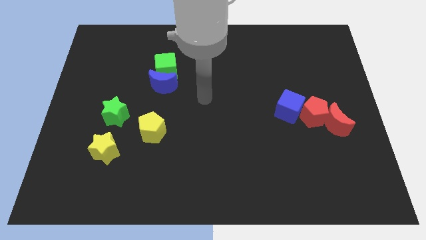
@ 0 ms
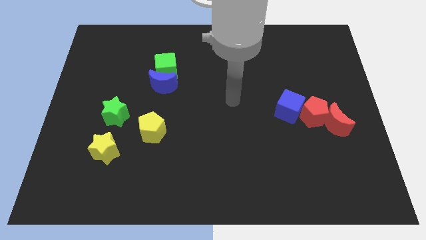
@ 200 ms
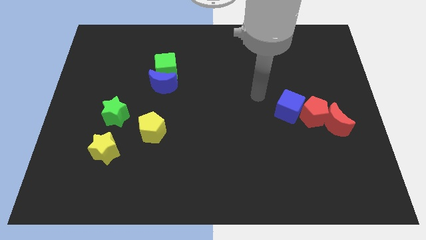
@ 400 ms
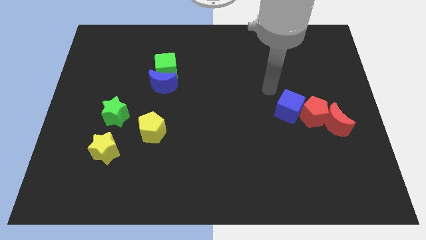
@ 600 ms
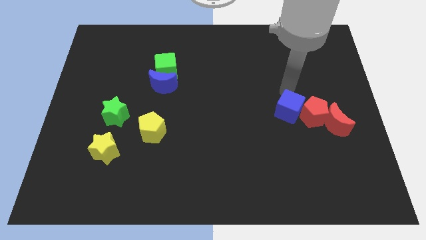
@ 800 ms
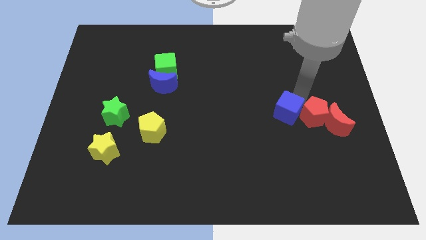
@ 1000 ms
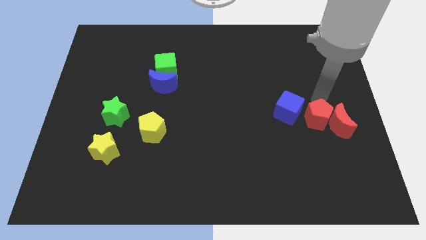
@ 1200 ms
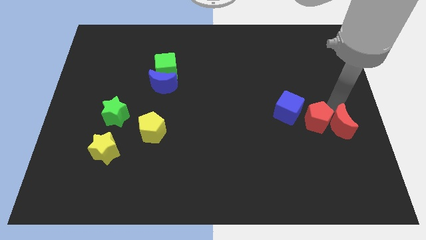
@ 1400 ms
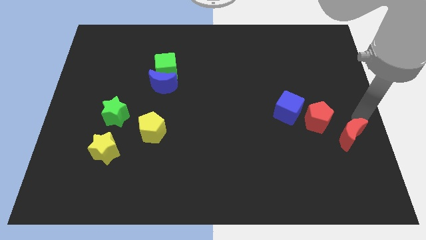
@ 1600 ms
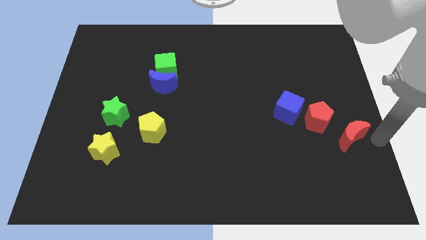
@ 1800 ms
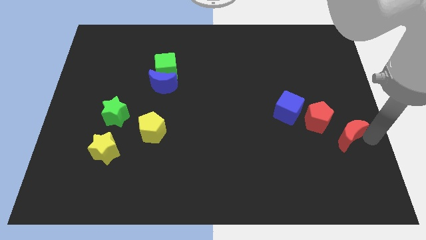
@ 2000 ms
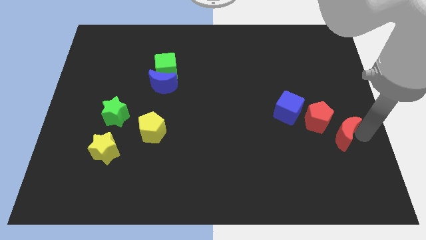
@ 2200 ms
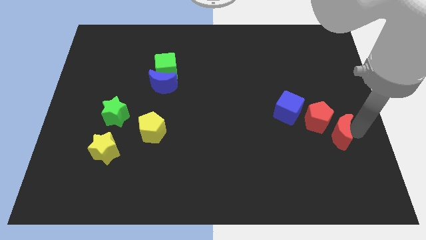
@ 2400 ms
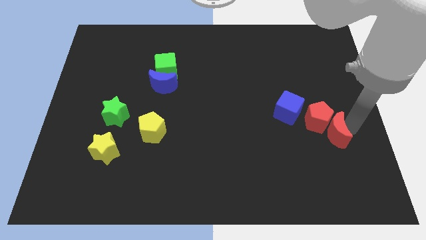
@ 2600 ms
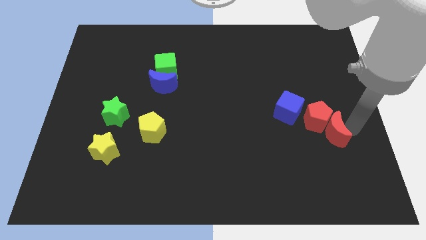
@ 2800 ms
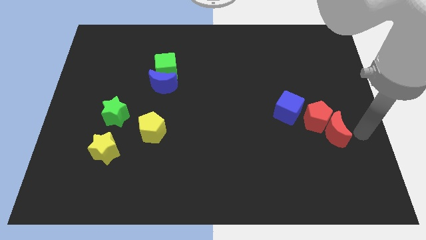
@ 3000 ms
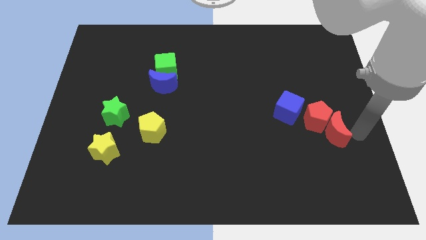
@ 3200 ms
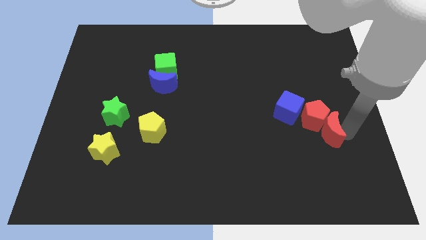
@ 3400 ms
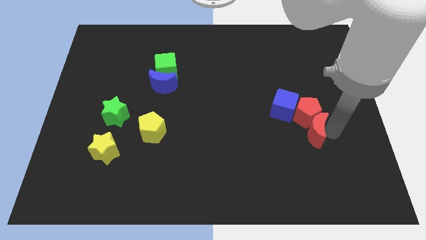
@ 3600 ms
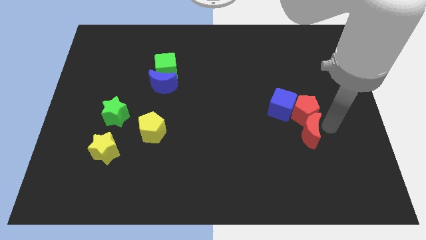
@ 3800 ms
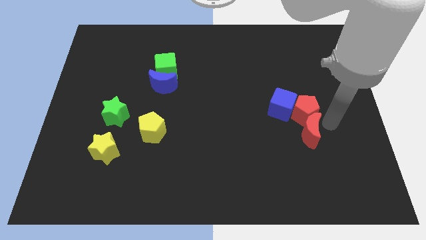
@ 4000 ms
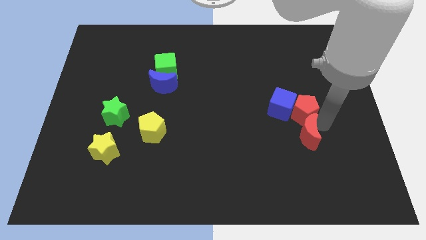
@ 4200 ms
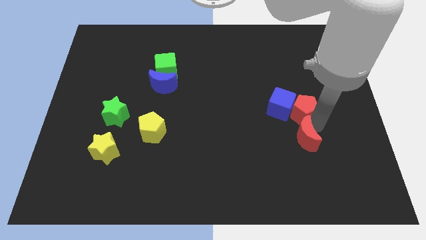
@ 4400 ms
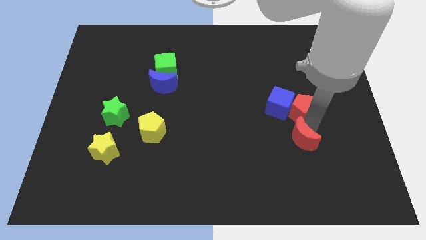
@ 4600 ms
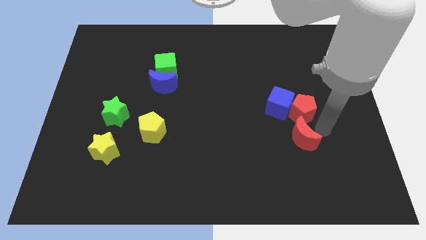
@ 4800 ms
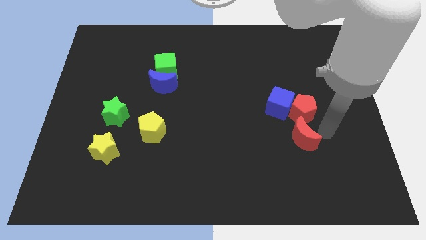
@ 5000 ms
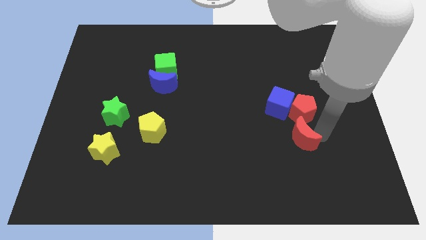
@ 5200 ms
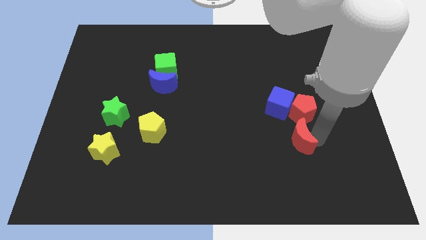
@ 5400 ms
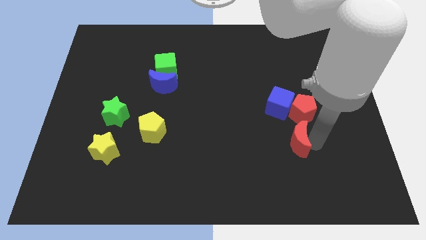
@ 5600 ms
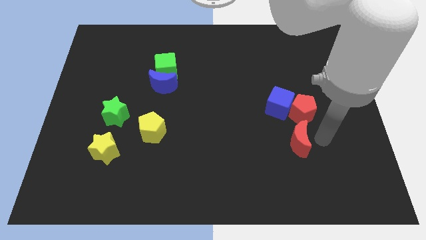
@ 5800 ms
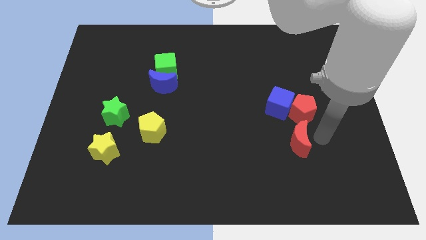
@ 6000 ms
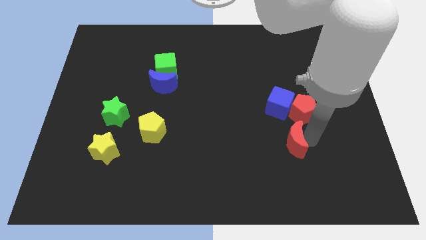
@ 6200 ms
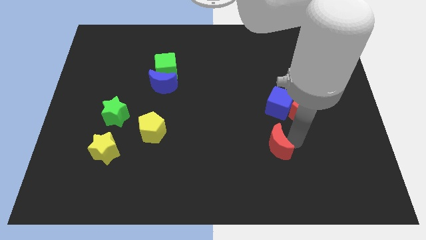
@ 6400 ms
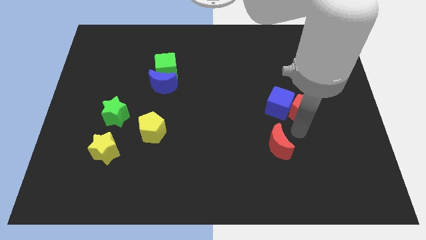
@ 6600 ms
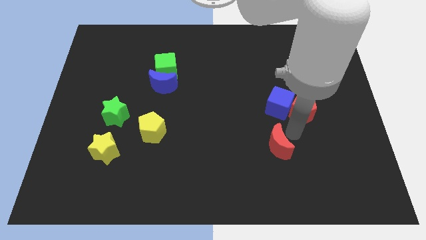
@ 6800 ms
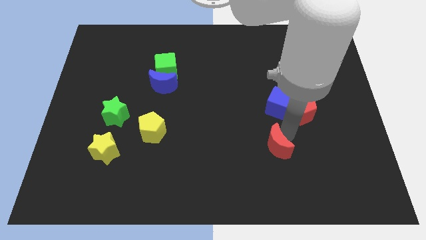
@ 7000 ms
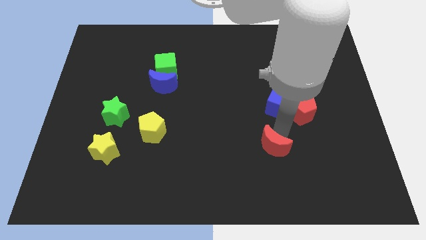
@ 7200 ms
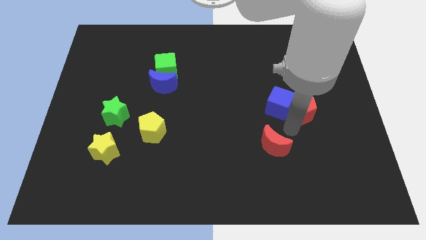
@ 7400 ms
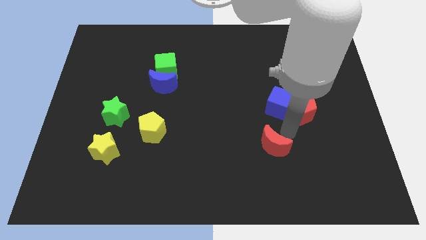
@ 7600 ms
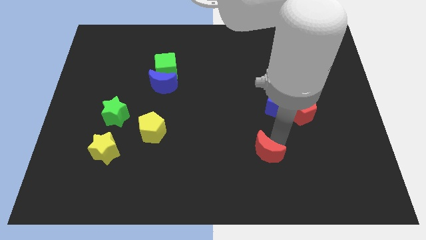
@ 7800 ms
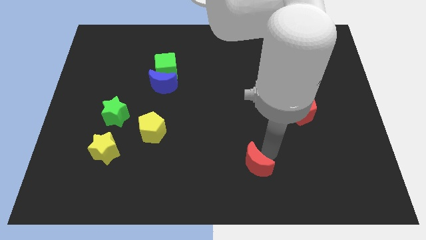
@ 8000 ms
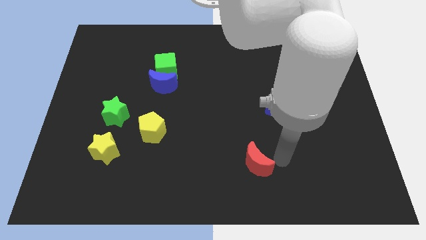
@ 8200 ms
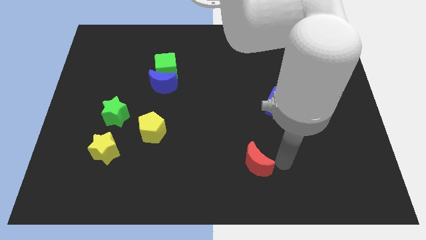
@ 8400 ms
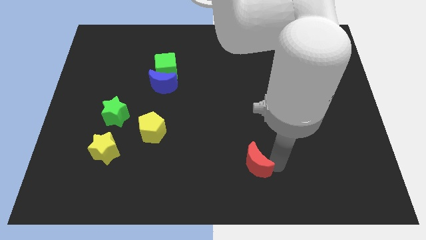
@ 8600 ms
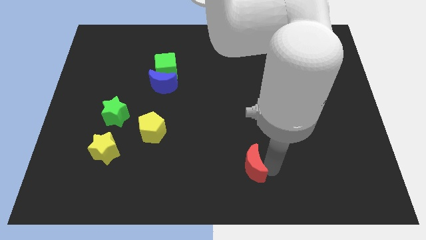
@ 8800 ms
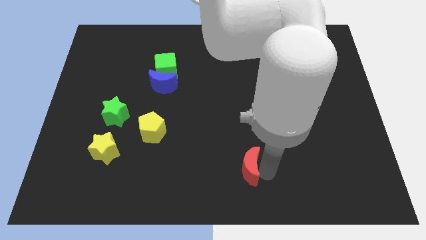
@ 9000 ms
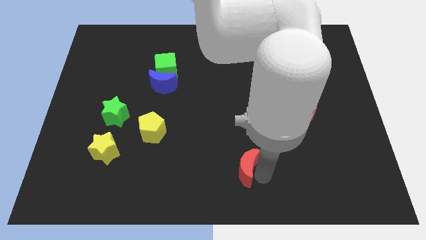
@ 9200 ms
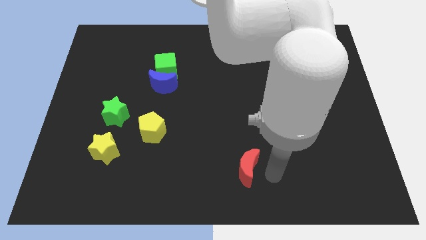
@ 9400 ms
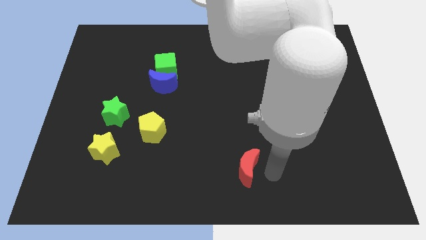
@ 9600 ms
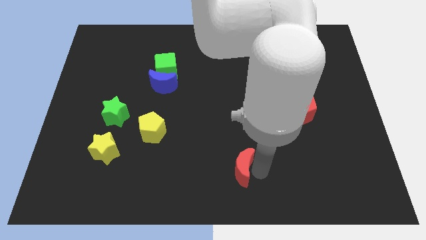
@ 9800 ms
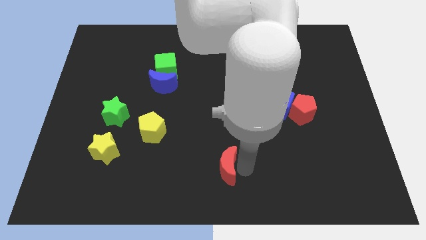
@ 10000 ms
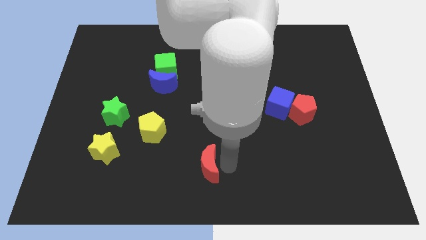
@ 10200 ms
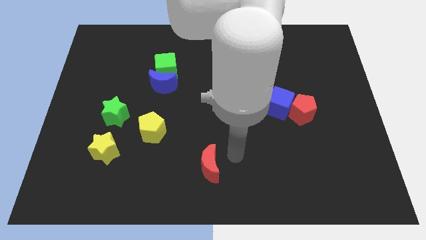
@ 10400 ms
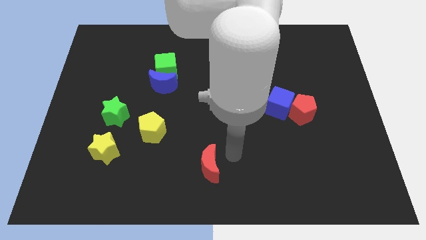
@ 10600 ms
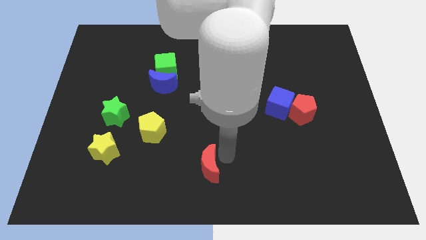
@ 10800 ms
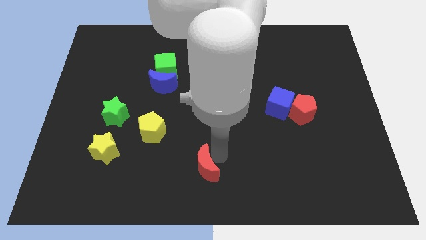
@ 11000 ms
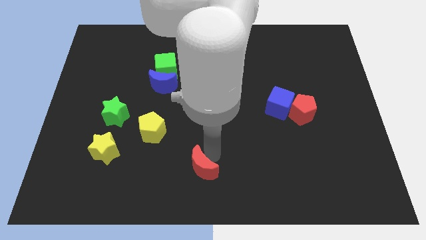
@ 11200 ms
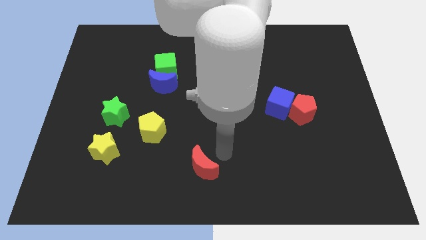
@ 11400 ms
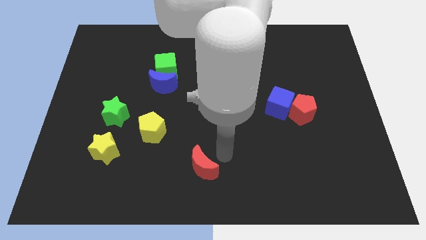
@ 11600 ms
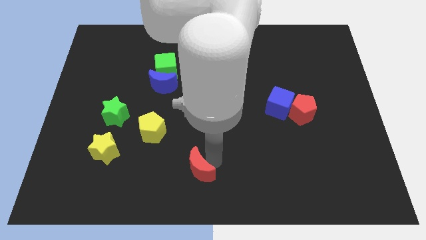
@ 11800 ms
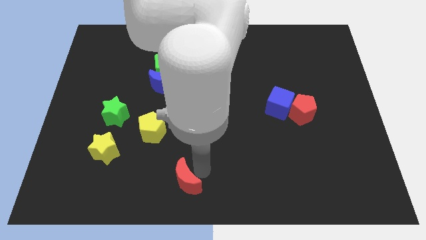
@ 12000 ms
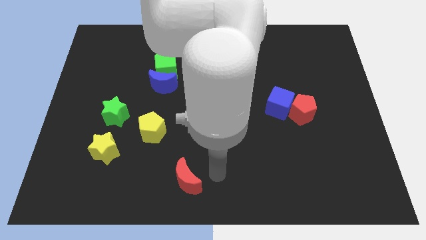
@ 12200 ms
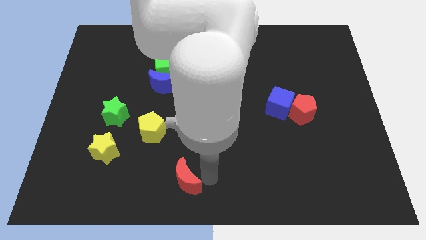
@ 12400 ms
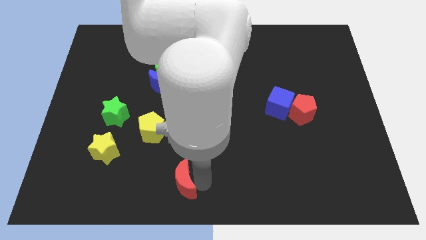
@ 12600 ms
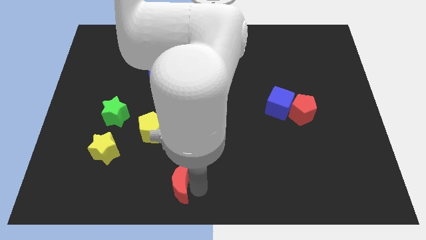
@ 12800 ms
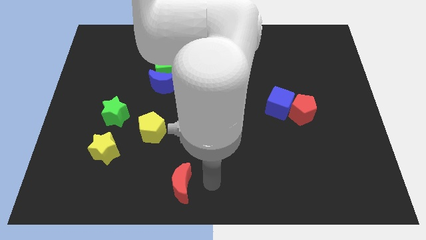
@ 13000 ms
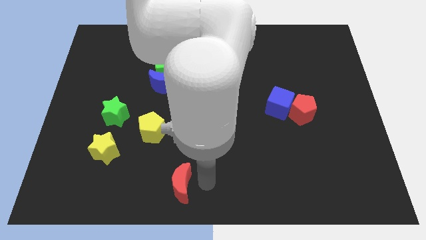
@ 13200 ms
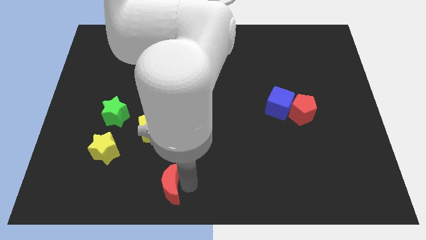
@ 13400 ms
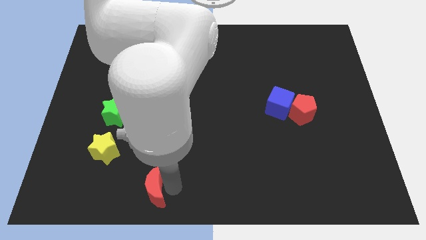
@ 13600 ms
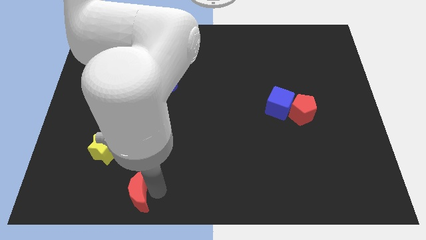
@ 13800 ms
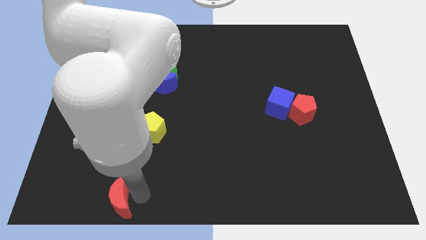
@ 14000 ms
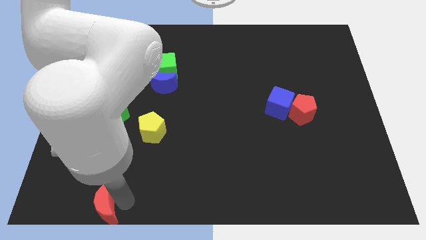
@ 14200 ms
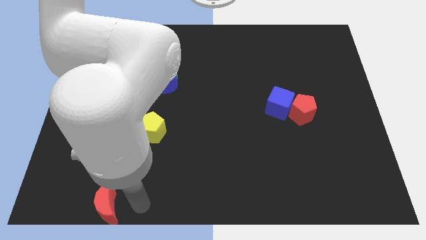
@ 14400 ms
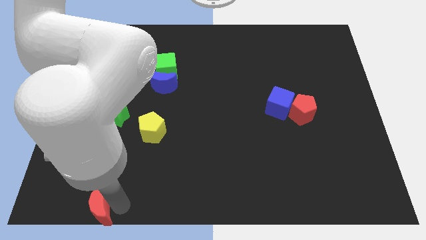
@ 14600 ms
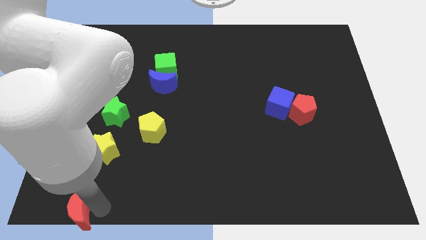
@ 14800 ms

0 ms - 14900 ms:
move the red moon to the bottom left
